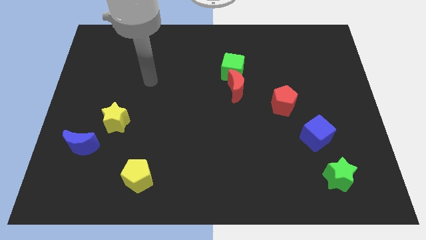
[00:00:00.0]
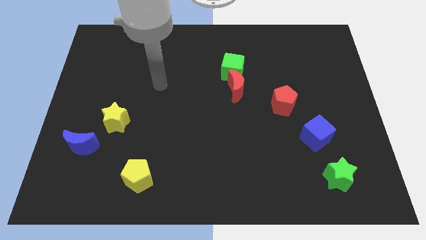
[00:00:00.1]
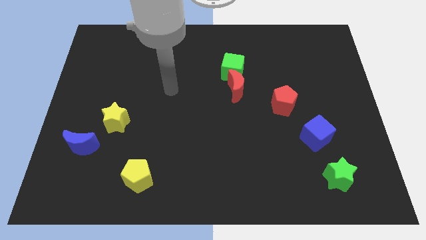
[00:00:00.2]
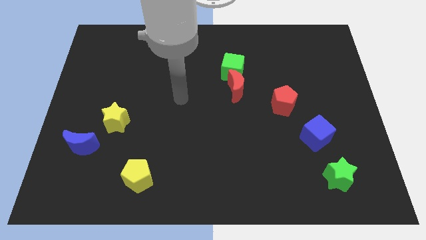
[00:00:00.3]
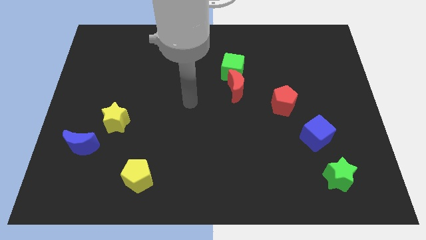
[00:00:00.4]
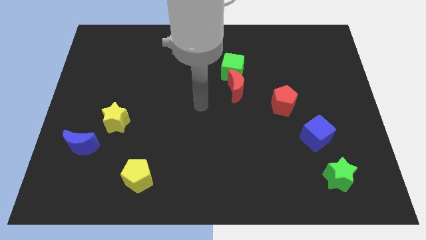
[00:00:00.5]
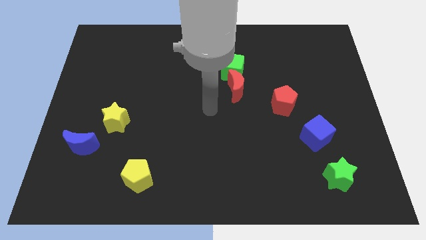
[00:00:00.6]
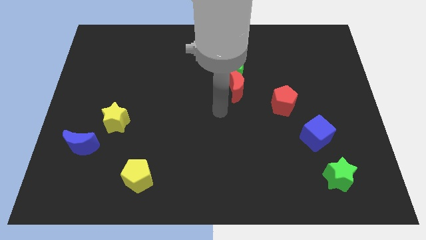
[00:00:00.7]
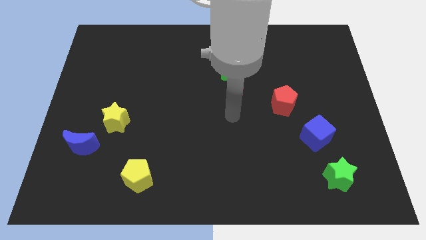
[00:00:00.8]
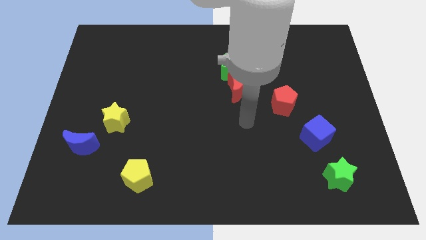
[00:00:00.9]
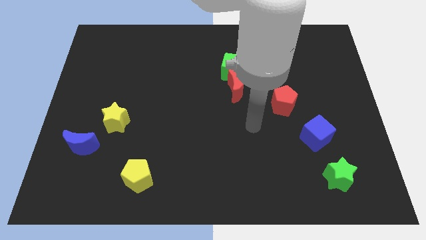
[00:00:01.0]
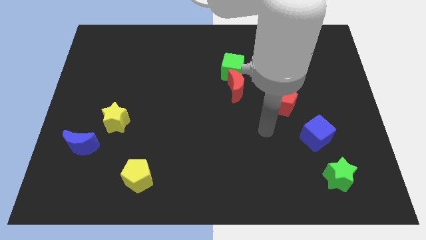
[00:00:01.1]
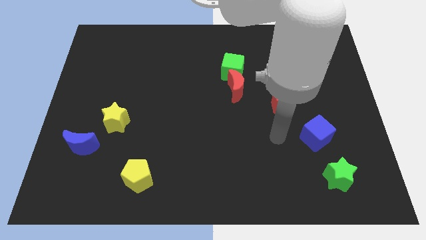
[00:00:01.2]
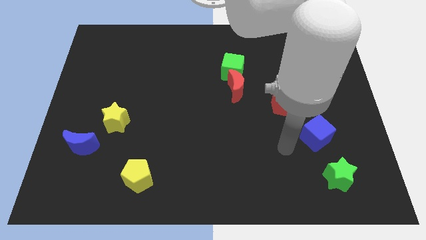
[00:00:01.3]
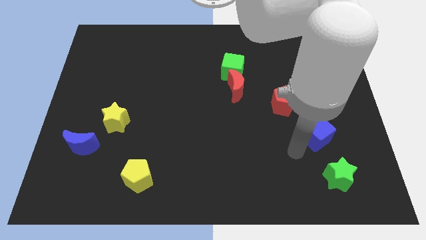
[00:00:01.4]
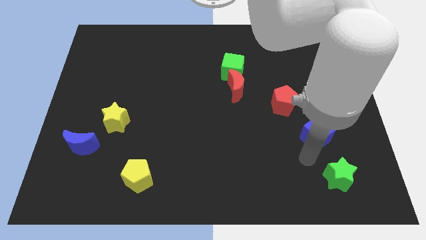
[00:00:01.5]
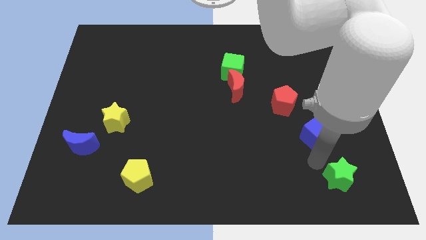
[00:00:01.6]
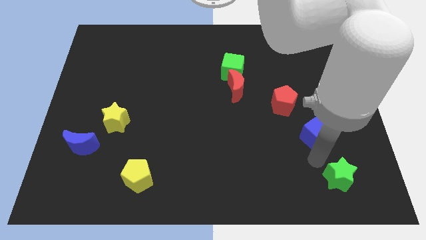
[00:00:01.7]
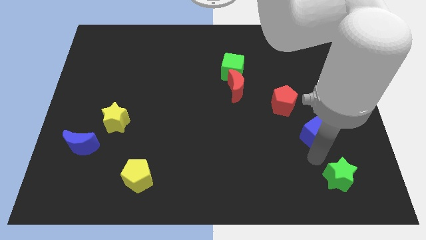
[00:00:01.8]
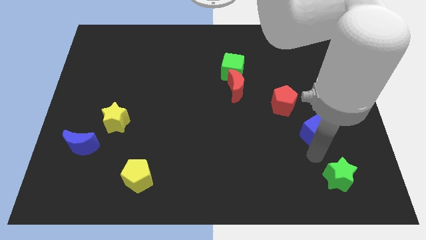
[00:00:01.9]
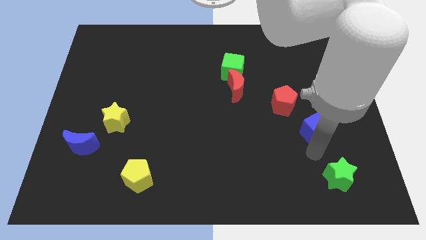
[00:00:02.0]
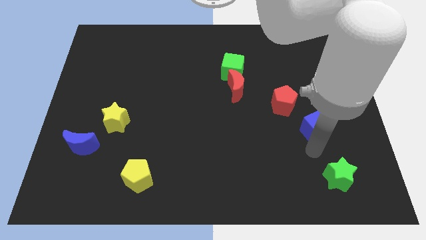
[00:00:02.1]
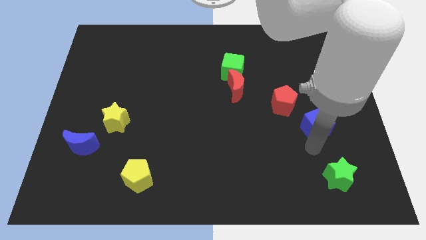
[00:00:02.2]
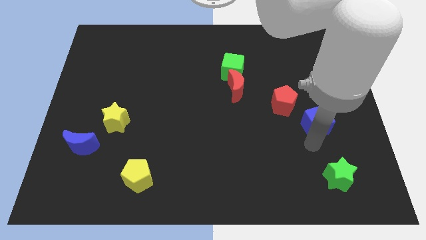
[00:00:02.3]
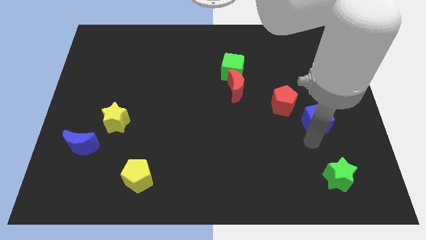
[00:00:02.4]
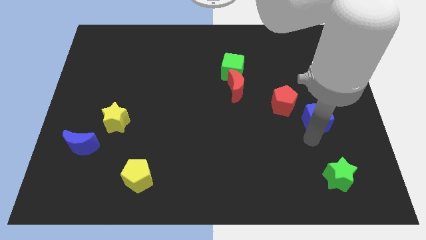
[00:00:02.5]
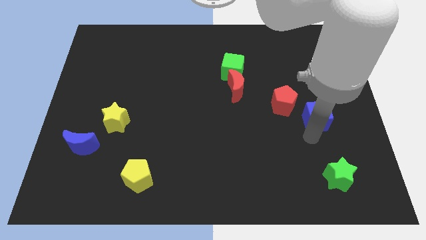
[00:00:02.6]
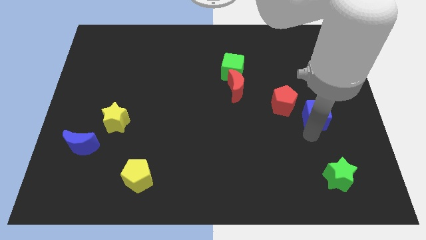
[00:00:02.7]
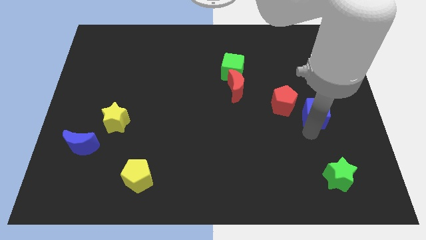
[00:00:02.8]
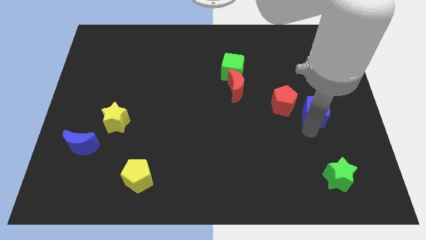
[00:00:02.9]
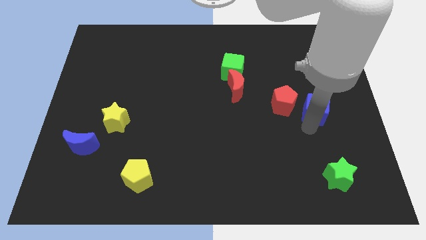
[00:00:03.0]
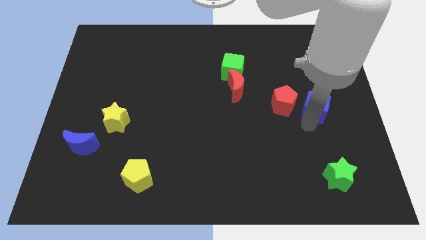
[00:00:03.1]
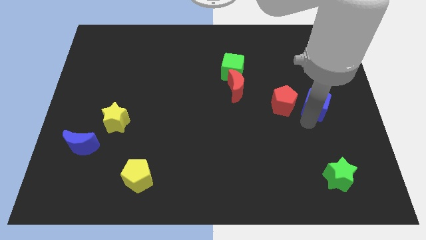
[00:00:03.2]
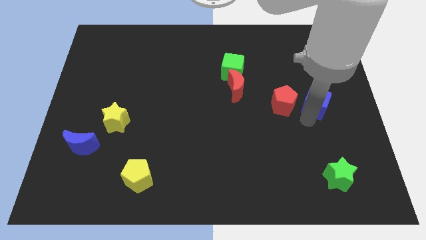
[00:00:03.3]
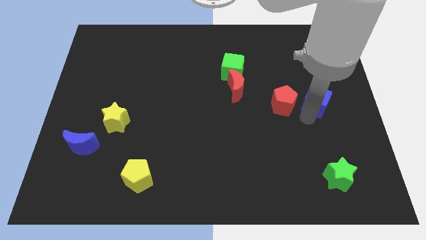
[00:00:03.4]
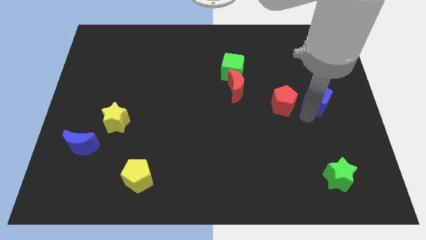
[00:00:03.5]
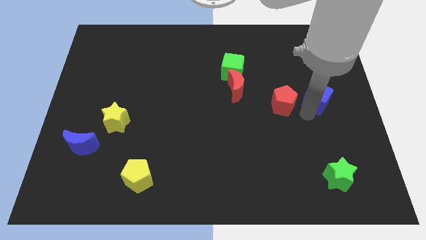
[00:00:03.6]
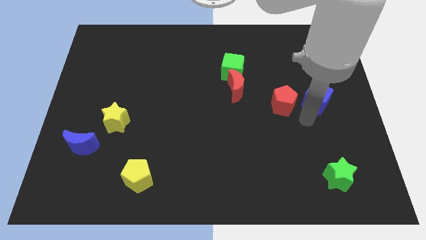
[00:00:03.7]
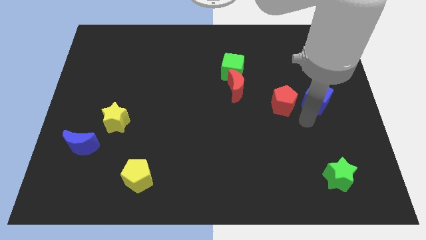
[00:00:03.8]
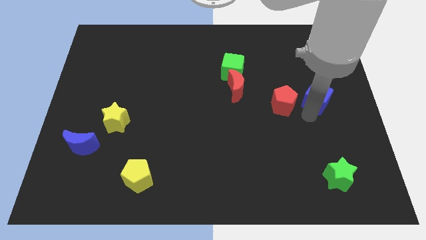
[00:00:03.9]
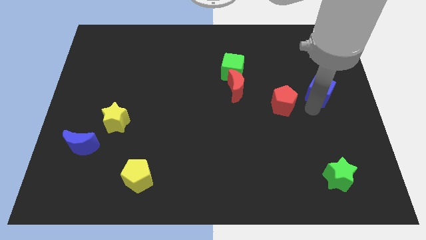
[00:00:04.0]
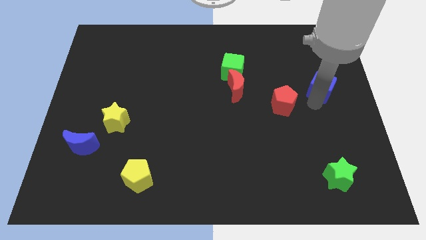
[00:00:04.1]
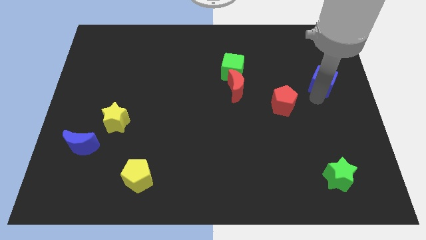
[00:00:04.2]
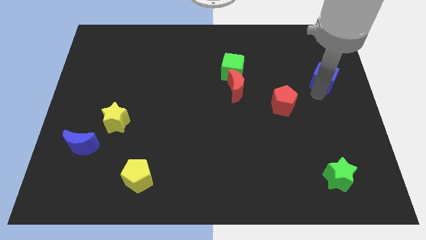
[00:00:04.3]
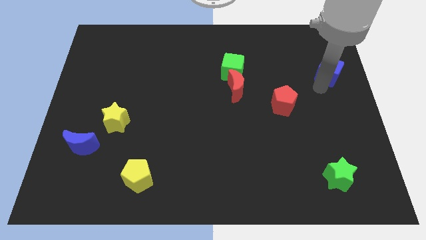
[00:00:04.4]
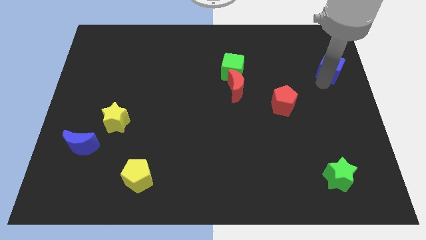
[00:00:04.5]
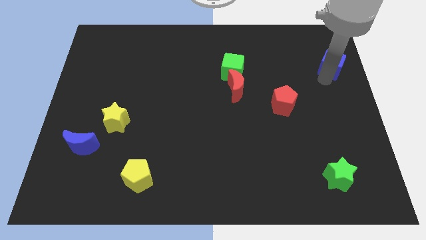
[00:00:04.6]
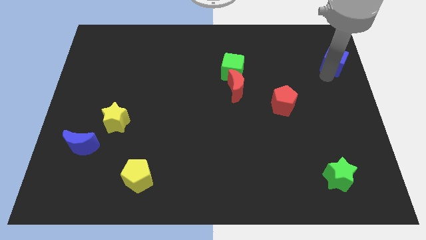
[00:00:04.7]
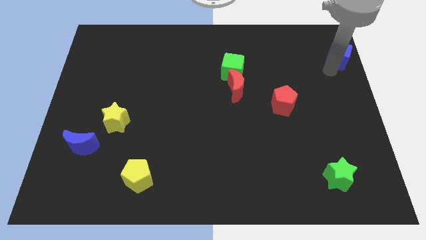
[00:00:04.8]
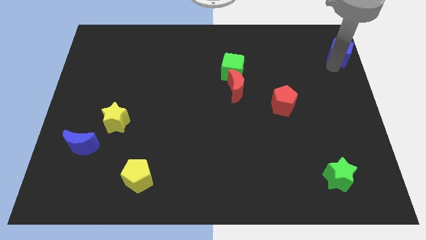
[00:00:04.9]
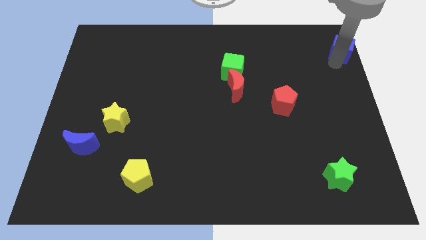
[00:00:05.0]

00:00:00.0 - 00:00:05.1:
slide the blue cube to the top right of the board

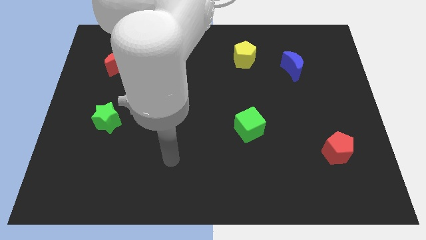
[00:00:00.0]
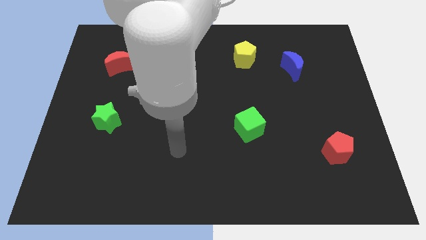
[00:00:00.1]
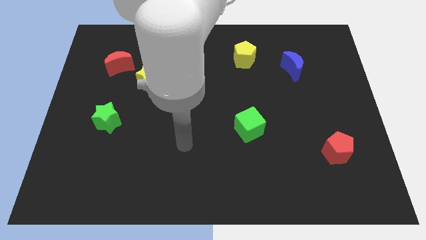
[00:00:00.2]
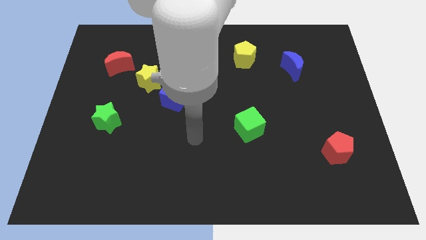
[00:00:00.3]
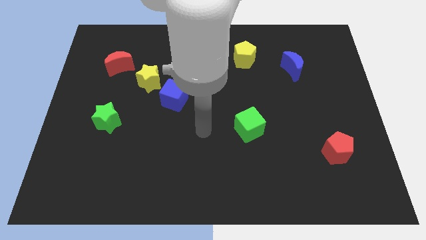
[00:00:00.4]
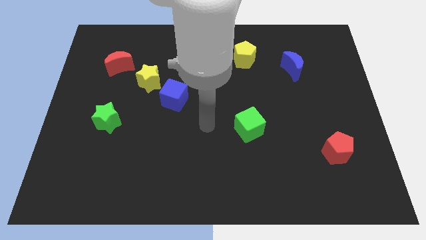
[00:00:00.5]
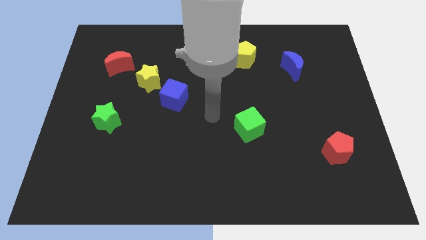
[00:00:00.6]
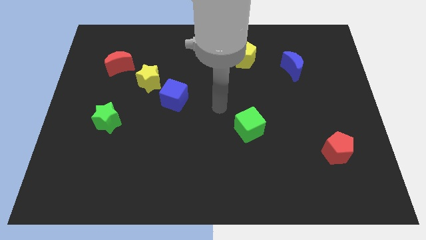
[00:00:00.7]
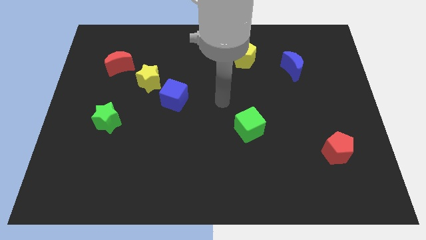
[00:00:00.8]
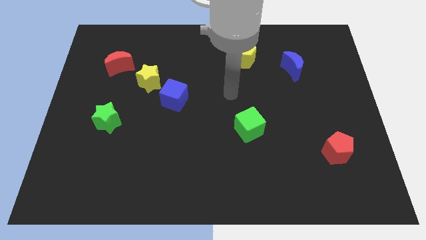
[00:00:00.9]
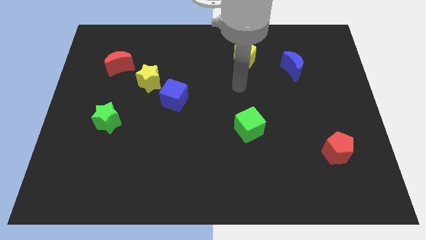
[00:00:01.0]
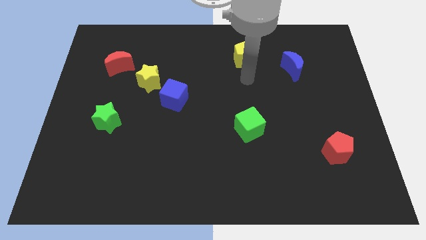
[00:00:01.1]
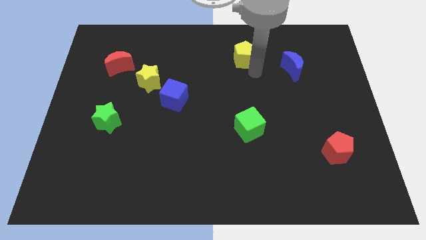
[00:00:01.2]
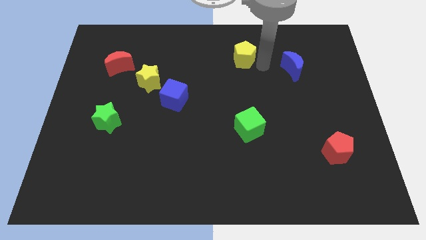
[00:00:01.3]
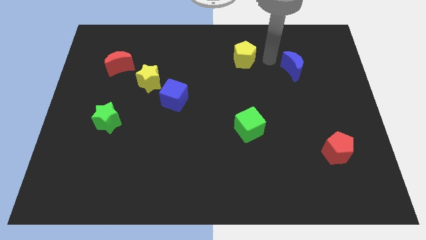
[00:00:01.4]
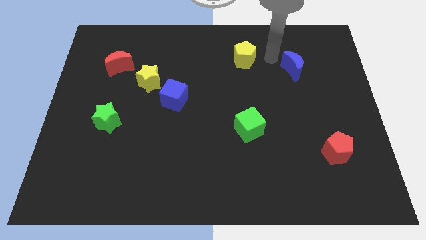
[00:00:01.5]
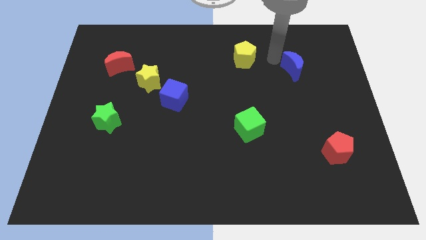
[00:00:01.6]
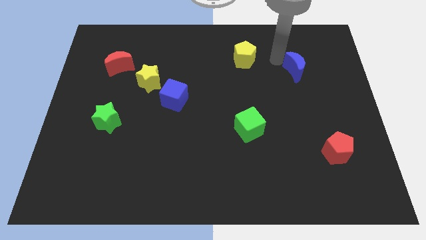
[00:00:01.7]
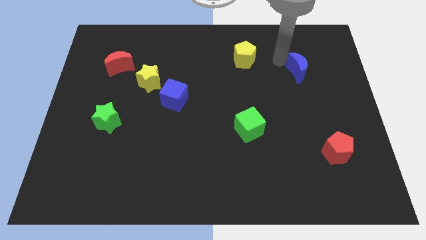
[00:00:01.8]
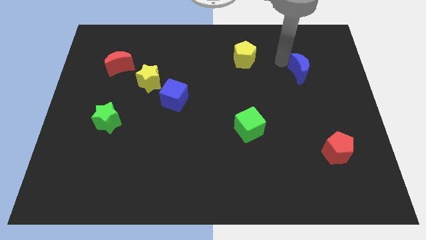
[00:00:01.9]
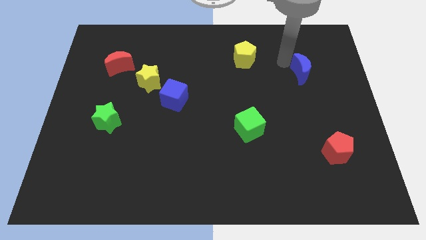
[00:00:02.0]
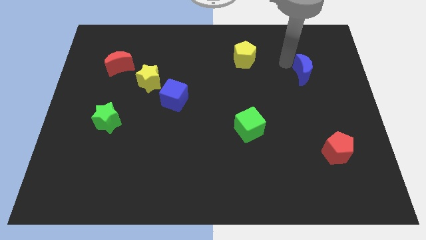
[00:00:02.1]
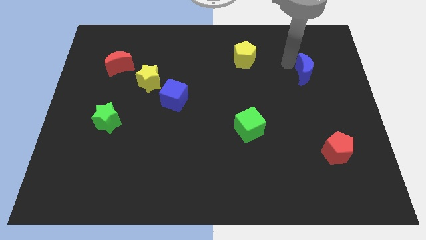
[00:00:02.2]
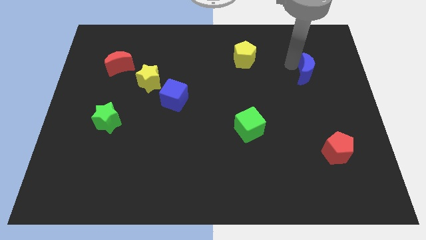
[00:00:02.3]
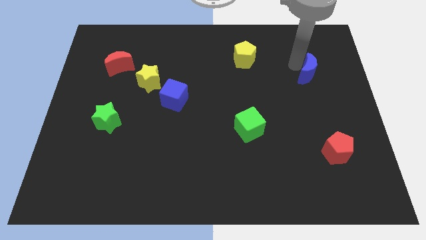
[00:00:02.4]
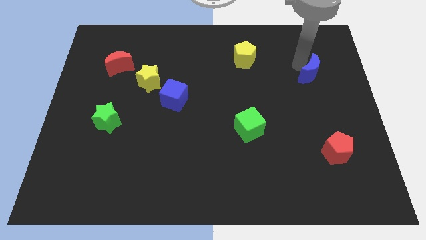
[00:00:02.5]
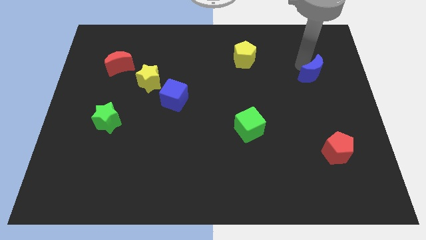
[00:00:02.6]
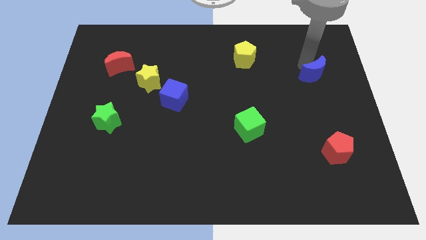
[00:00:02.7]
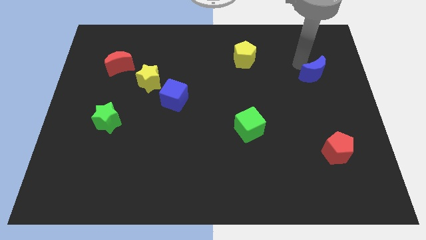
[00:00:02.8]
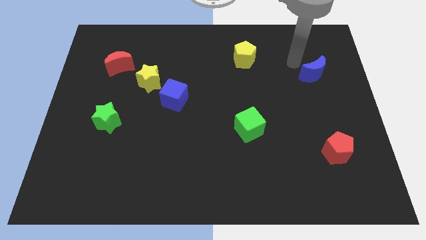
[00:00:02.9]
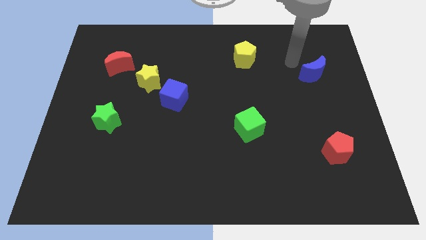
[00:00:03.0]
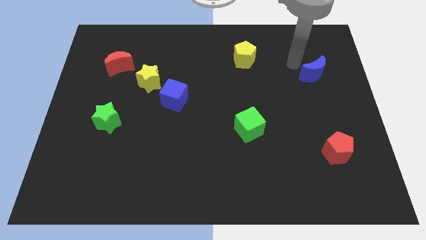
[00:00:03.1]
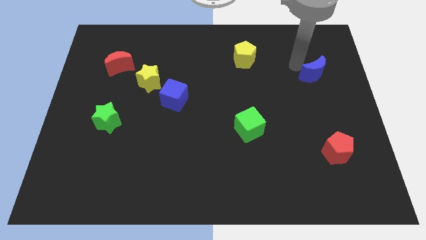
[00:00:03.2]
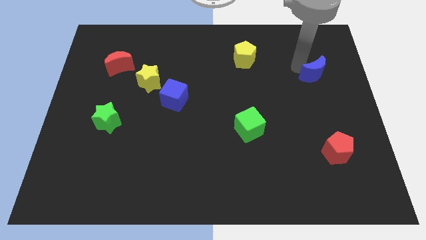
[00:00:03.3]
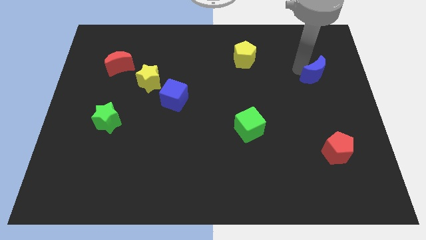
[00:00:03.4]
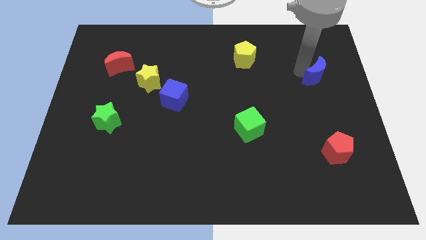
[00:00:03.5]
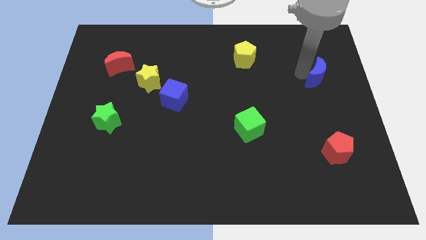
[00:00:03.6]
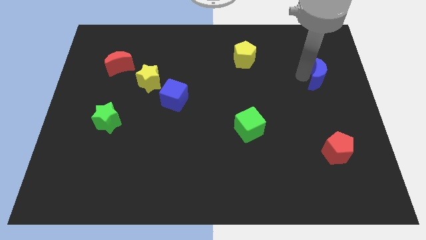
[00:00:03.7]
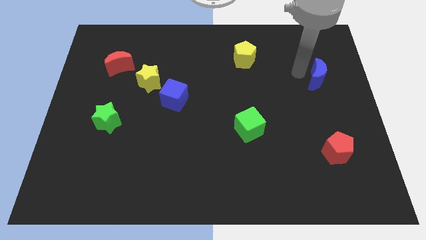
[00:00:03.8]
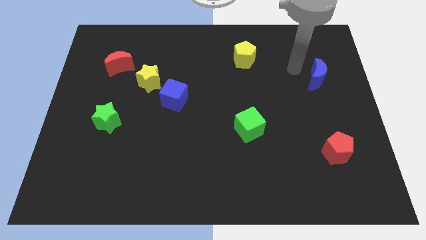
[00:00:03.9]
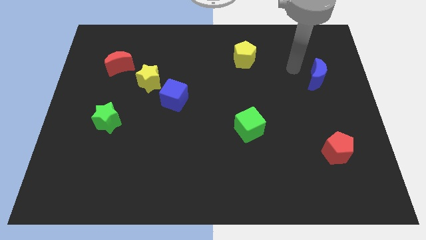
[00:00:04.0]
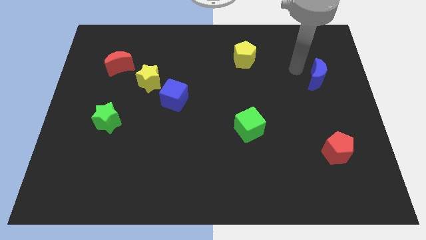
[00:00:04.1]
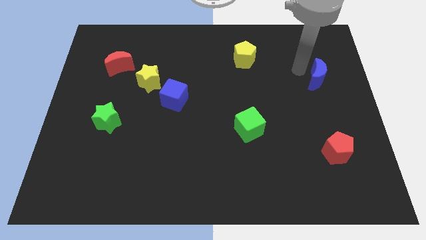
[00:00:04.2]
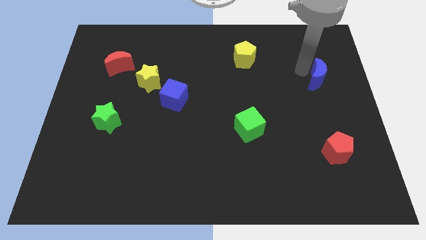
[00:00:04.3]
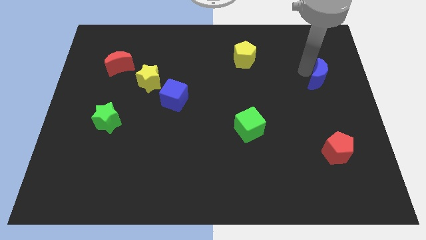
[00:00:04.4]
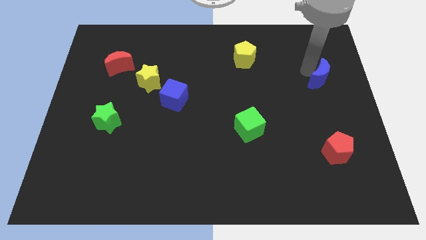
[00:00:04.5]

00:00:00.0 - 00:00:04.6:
slide the blue moon to the right side
